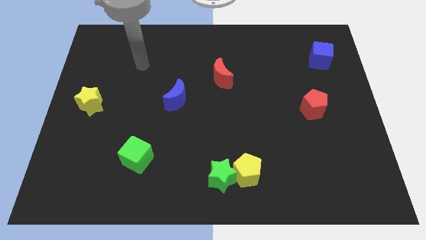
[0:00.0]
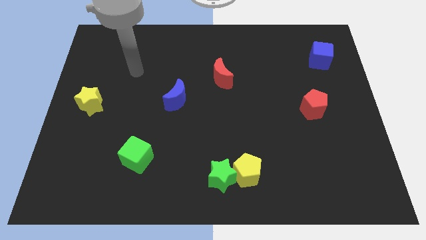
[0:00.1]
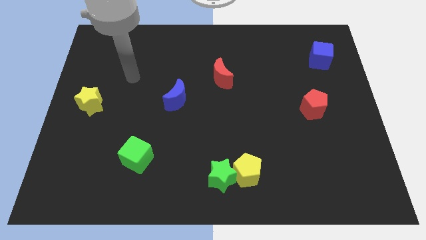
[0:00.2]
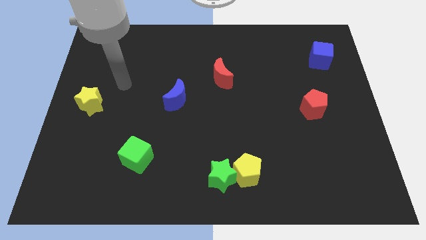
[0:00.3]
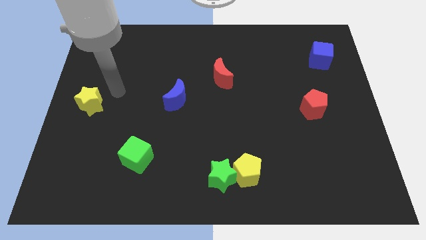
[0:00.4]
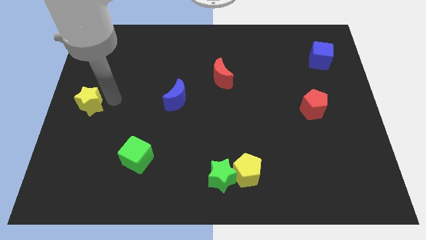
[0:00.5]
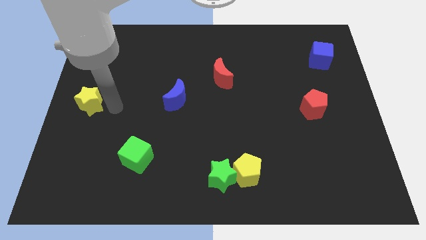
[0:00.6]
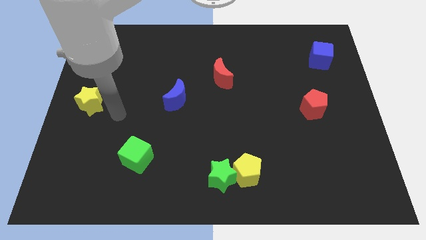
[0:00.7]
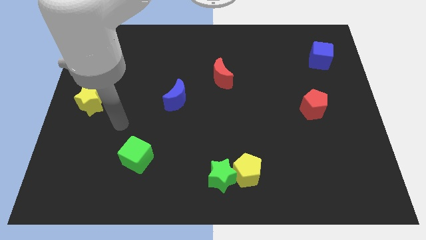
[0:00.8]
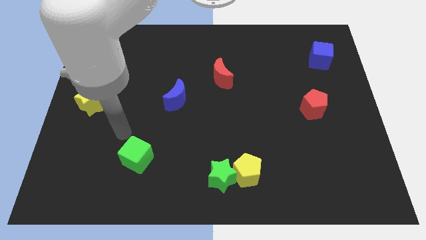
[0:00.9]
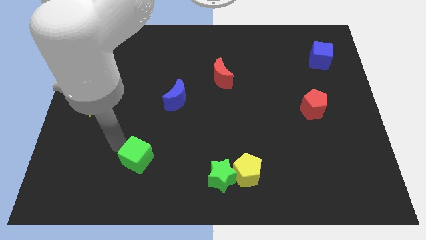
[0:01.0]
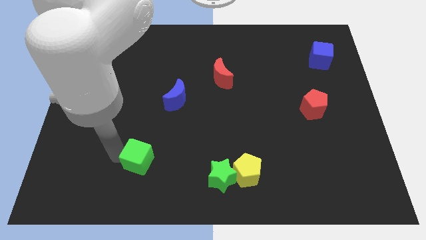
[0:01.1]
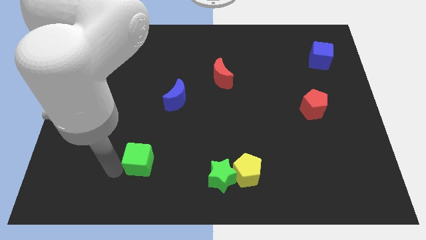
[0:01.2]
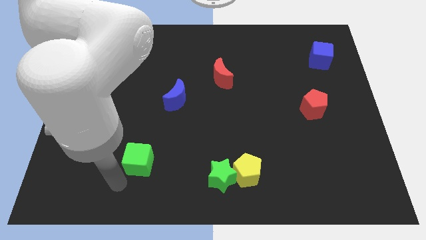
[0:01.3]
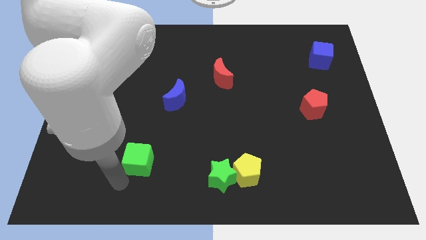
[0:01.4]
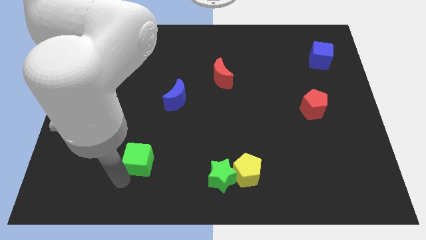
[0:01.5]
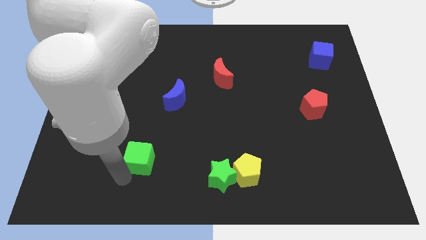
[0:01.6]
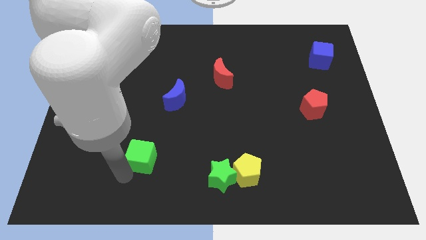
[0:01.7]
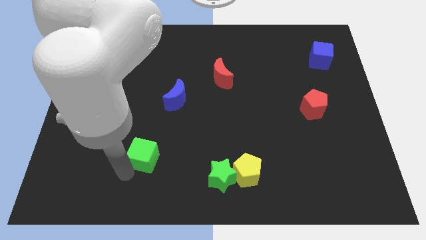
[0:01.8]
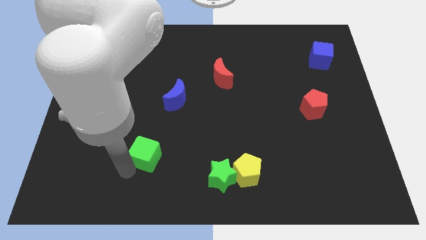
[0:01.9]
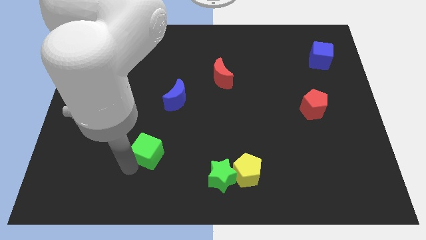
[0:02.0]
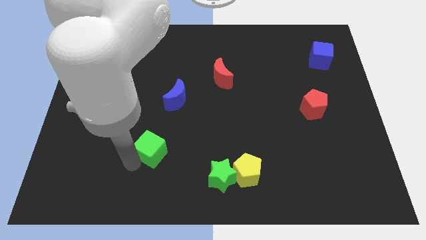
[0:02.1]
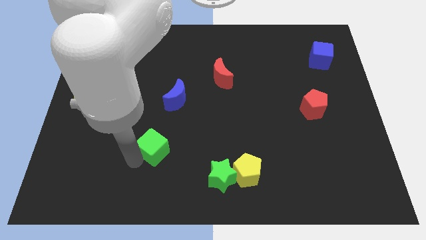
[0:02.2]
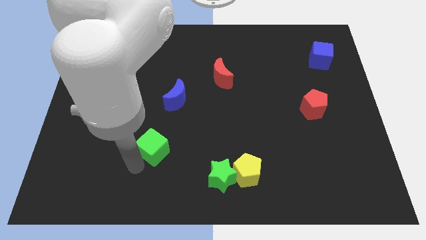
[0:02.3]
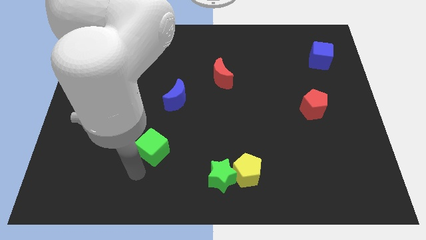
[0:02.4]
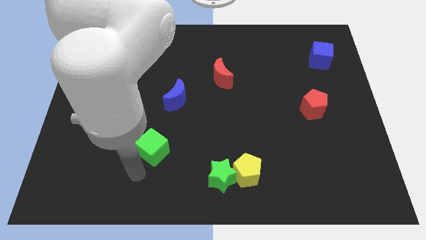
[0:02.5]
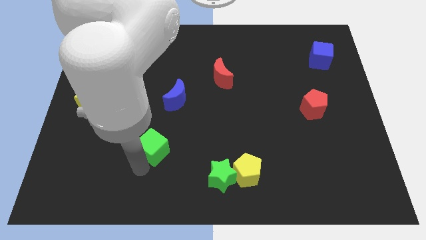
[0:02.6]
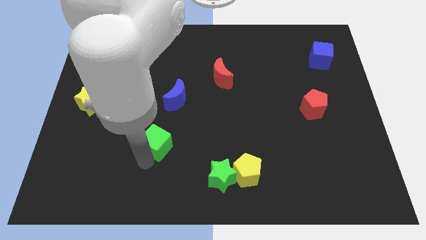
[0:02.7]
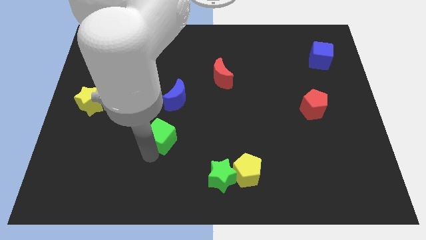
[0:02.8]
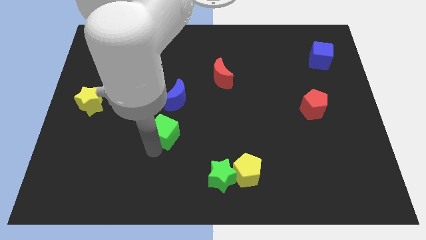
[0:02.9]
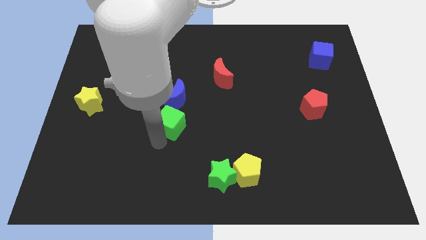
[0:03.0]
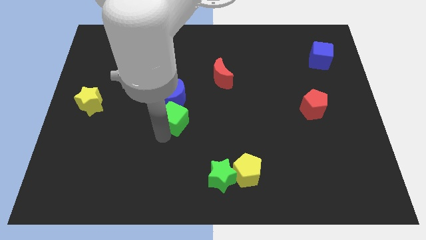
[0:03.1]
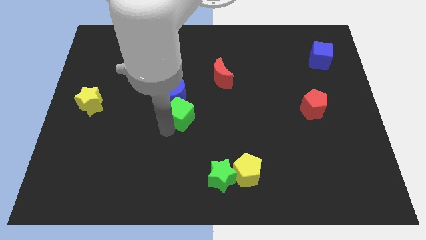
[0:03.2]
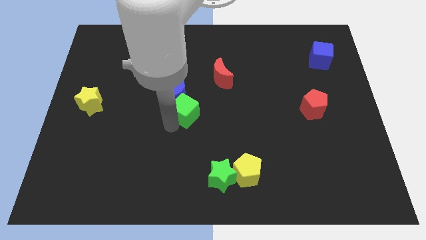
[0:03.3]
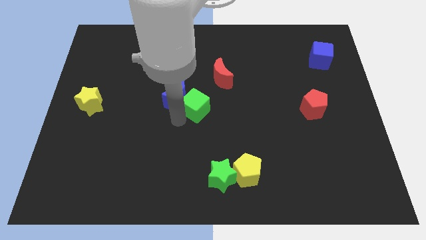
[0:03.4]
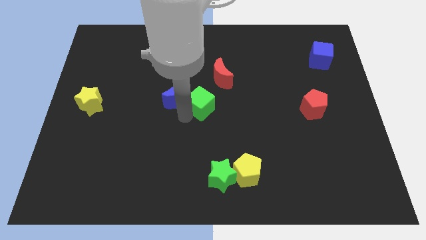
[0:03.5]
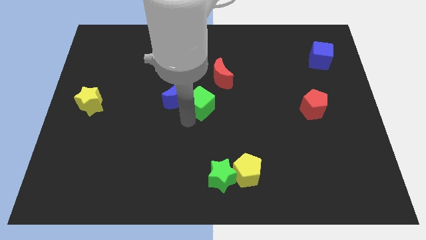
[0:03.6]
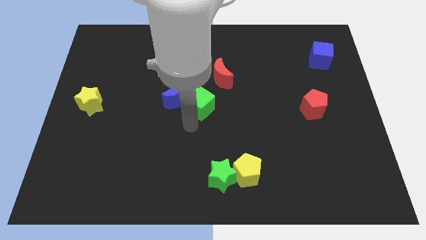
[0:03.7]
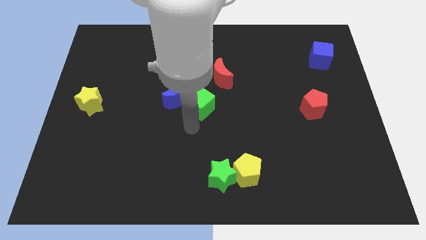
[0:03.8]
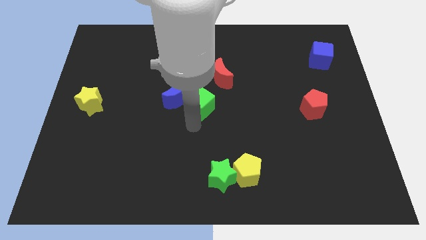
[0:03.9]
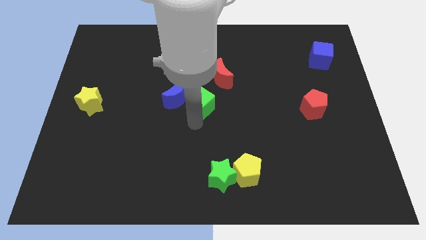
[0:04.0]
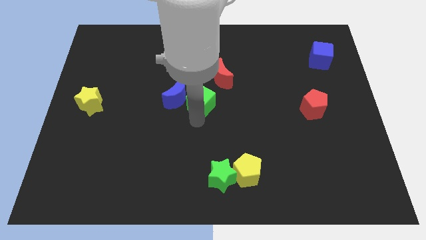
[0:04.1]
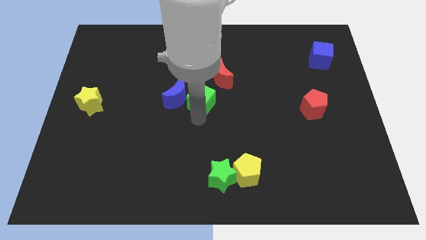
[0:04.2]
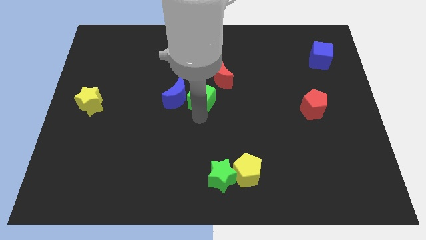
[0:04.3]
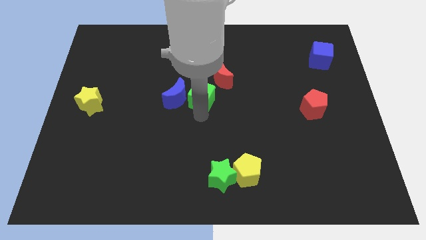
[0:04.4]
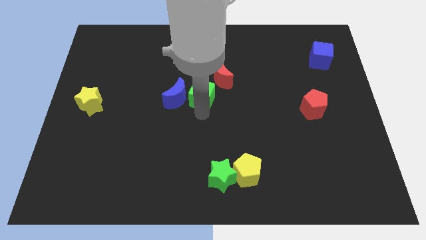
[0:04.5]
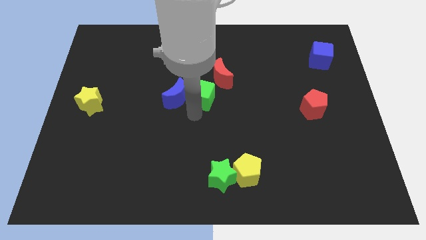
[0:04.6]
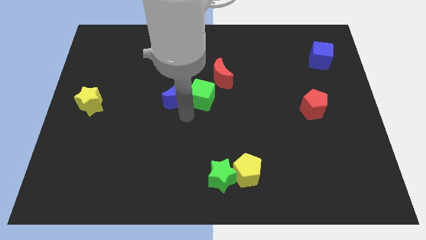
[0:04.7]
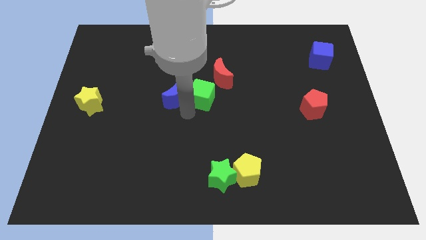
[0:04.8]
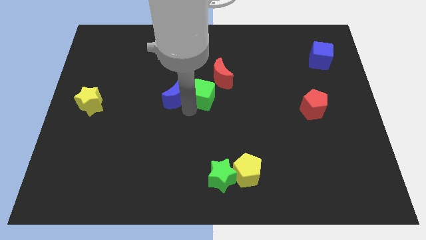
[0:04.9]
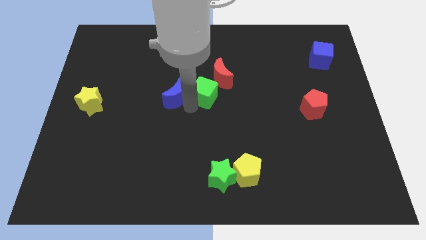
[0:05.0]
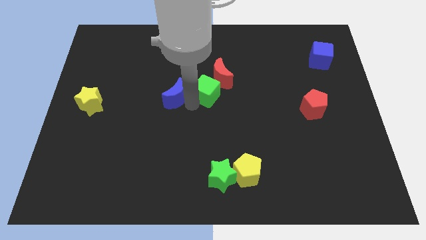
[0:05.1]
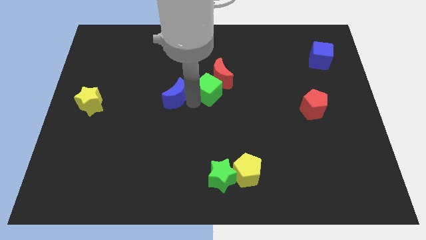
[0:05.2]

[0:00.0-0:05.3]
put the green cube close to the red moon

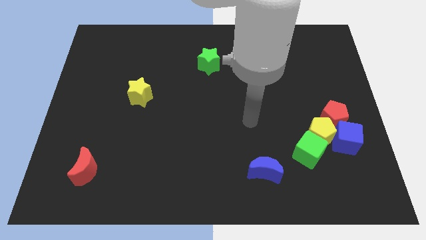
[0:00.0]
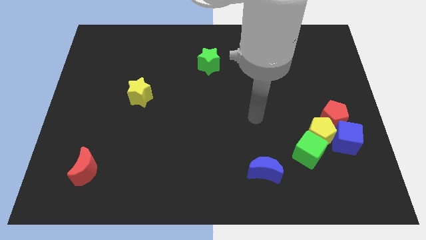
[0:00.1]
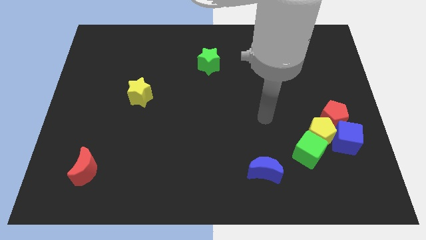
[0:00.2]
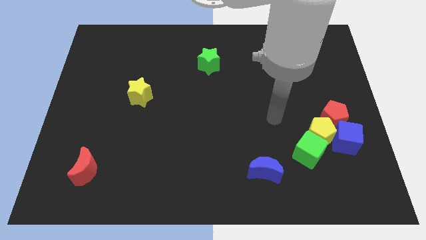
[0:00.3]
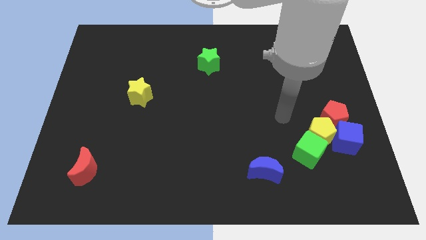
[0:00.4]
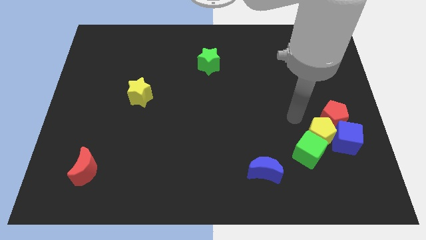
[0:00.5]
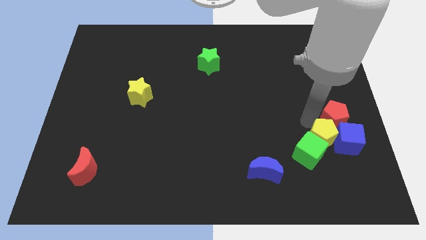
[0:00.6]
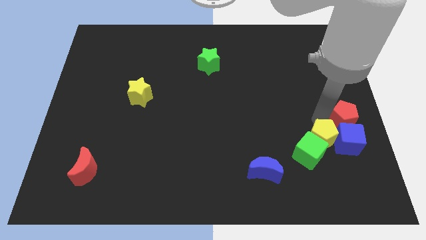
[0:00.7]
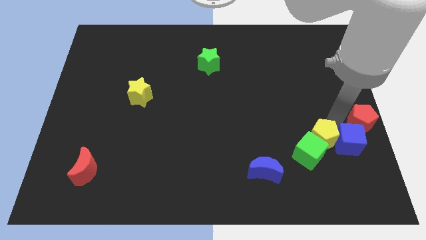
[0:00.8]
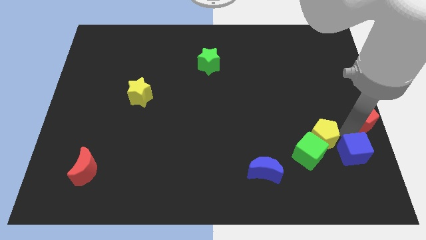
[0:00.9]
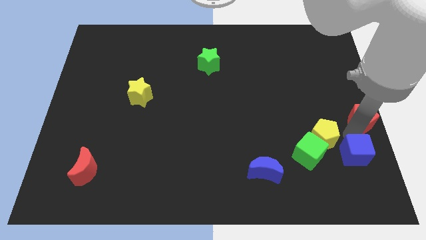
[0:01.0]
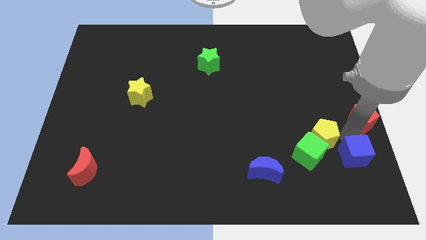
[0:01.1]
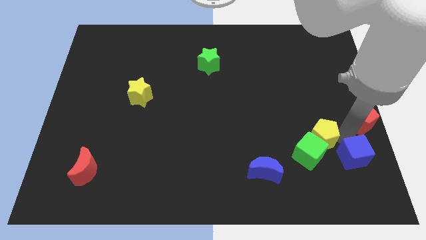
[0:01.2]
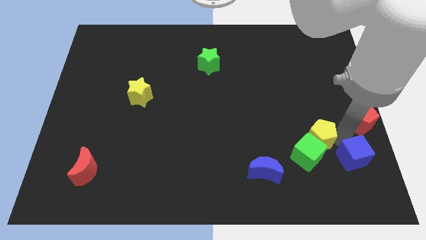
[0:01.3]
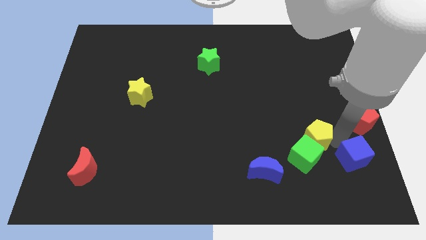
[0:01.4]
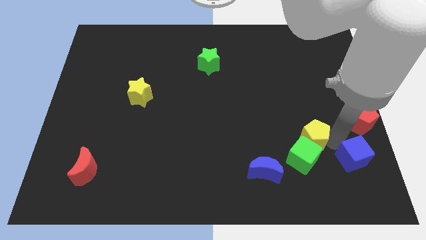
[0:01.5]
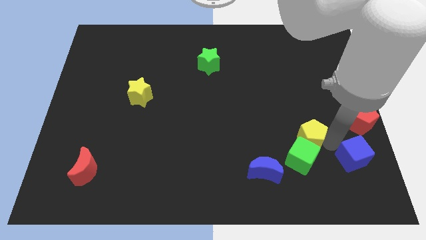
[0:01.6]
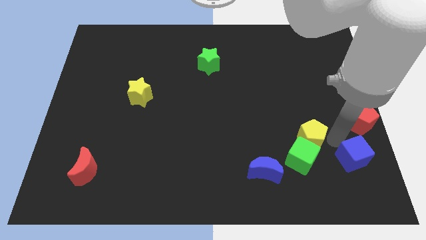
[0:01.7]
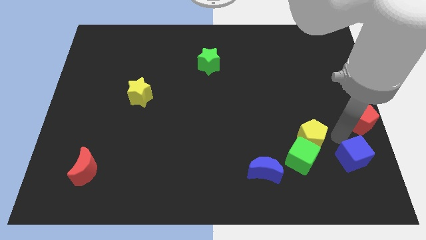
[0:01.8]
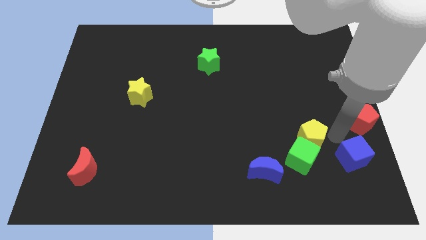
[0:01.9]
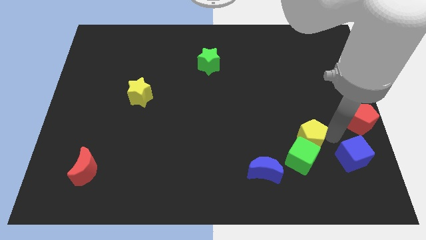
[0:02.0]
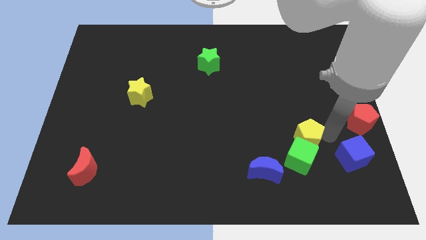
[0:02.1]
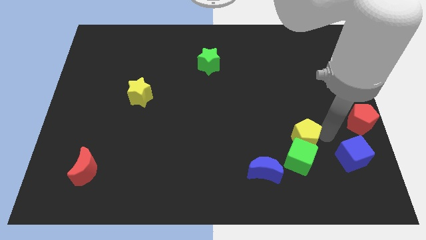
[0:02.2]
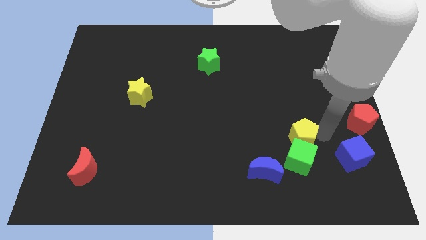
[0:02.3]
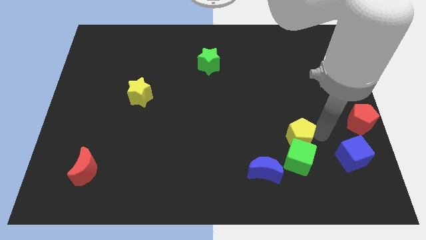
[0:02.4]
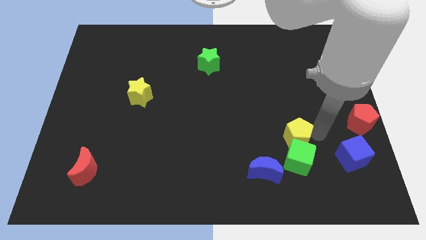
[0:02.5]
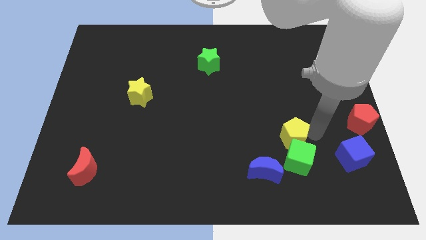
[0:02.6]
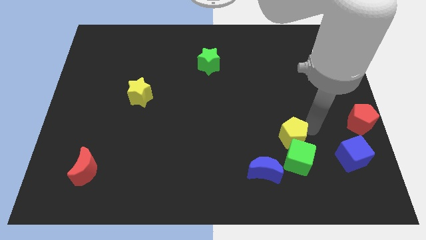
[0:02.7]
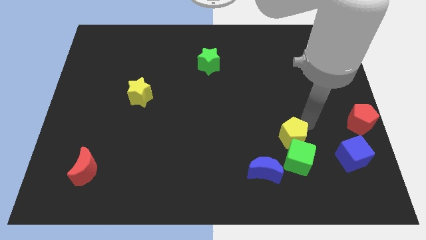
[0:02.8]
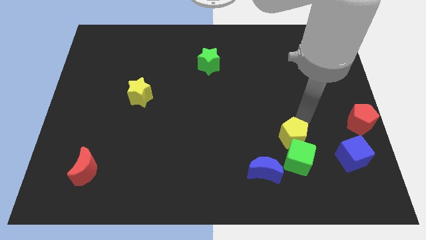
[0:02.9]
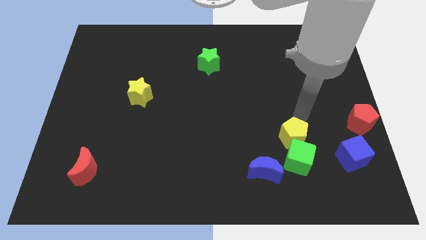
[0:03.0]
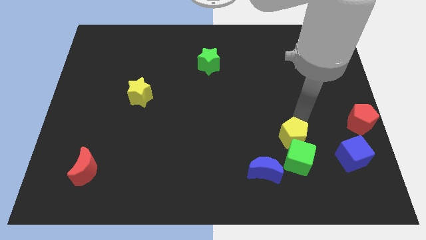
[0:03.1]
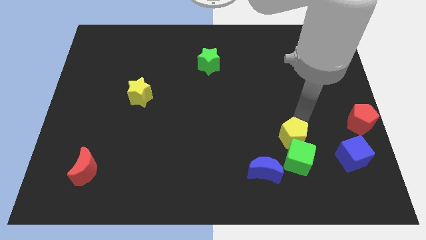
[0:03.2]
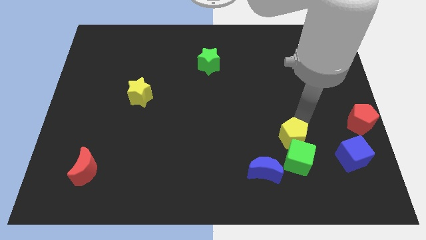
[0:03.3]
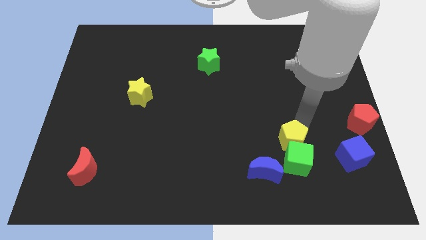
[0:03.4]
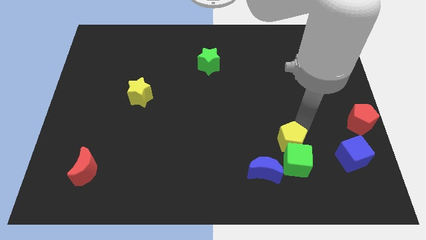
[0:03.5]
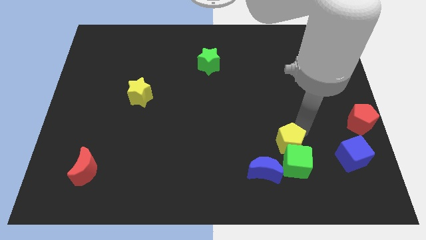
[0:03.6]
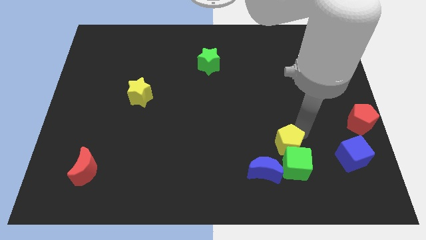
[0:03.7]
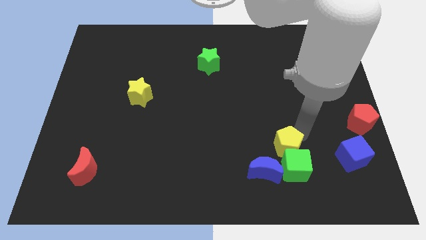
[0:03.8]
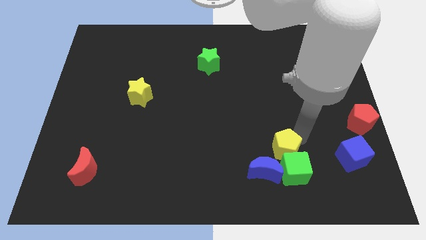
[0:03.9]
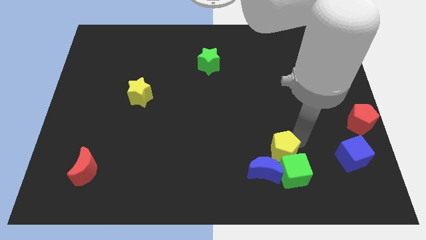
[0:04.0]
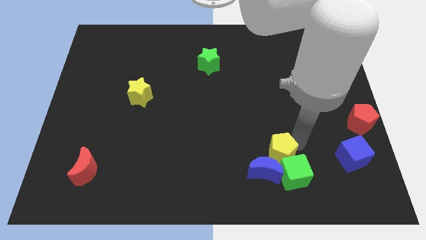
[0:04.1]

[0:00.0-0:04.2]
push the yellow pentagon close to the blue moon
